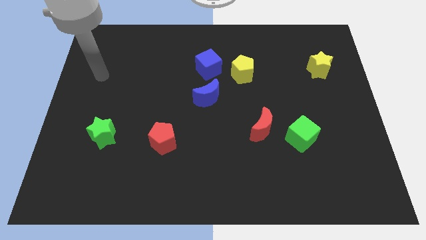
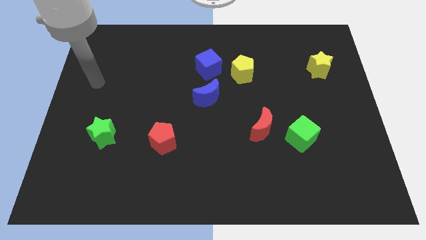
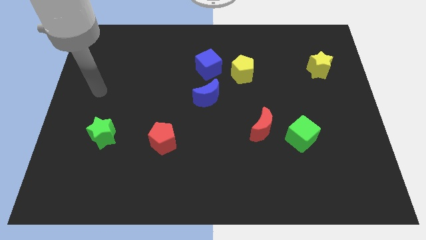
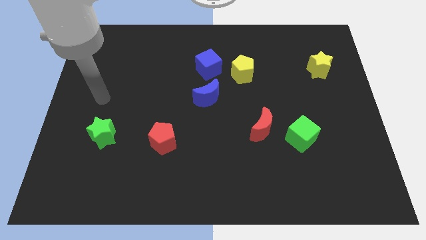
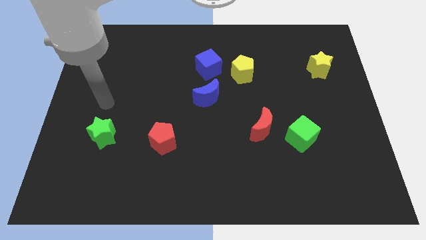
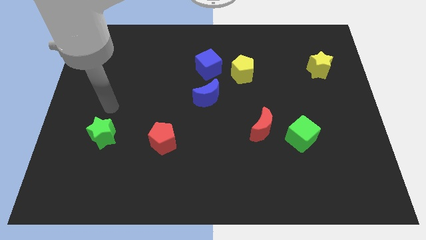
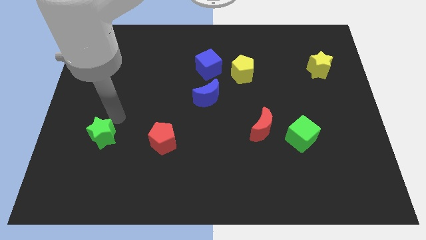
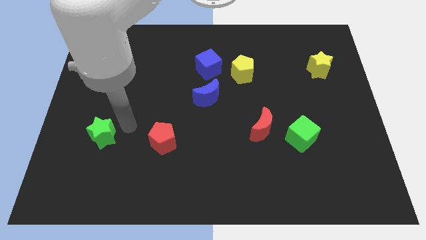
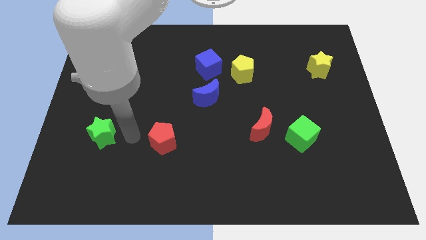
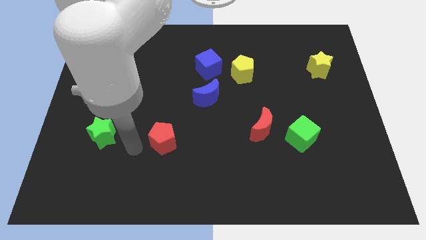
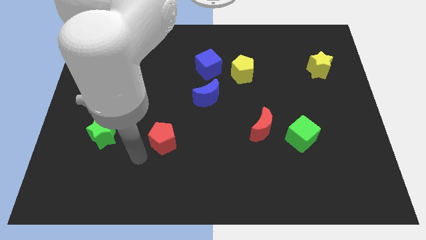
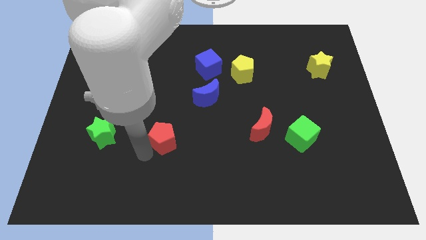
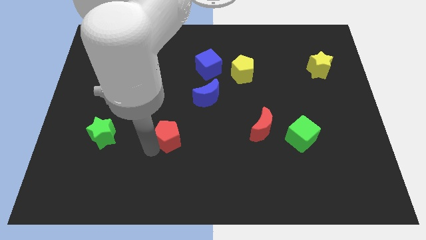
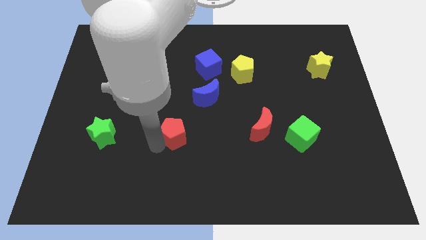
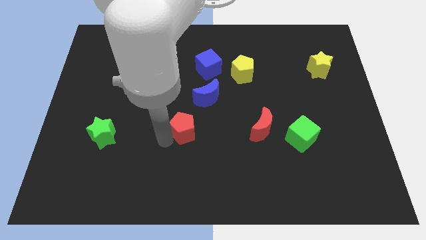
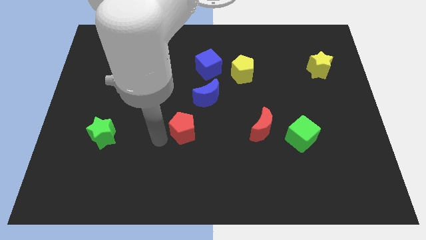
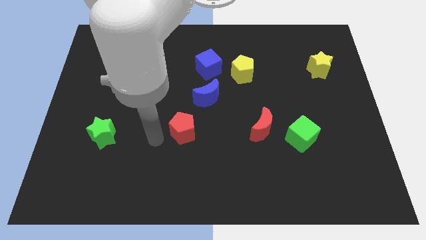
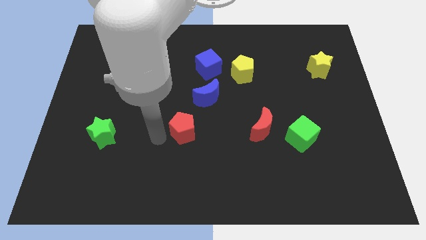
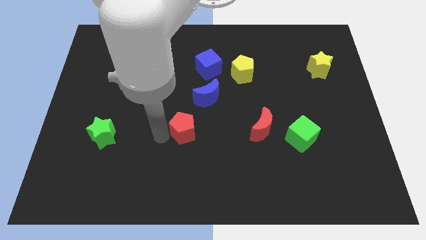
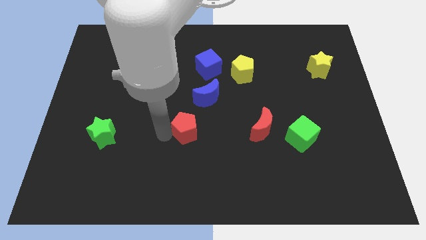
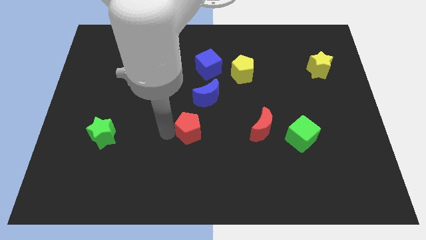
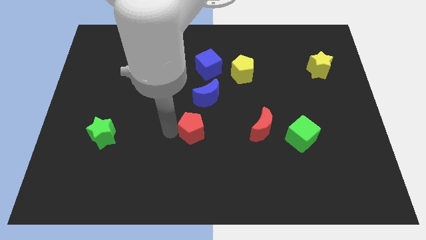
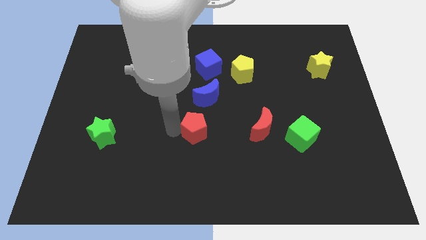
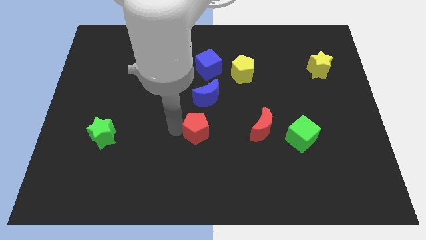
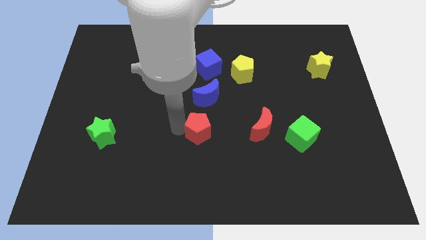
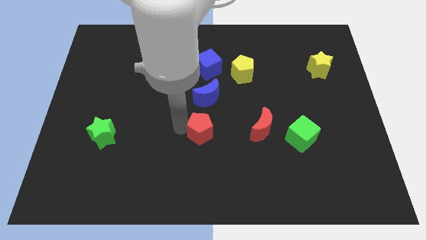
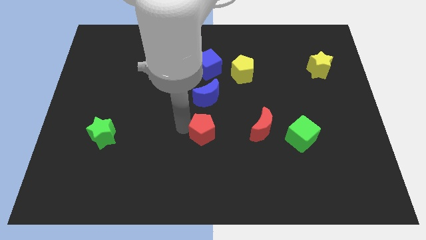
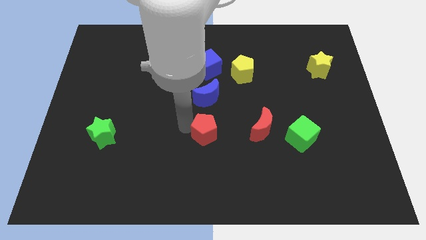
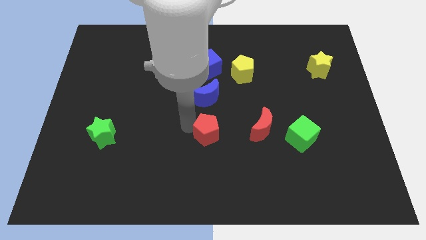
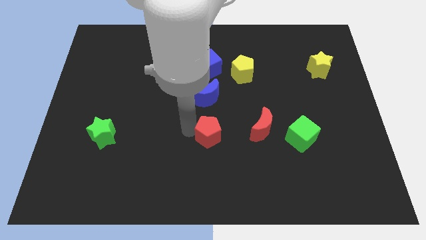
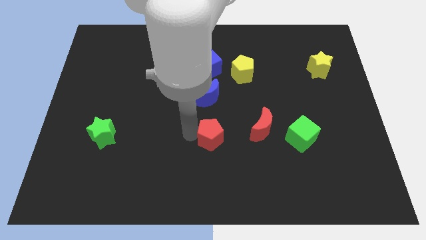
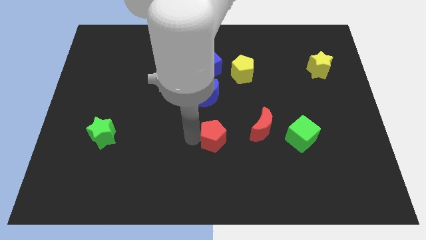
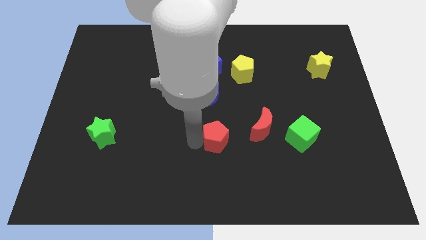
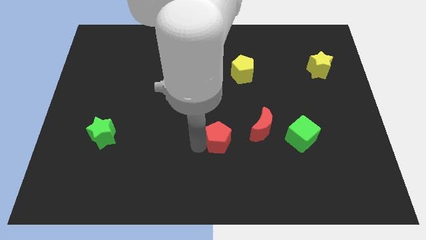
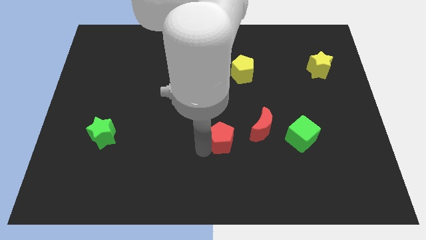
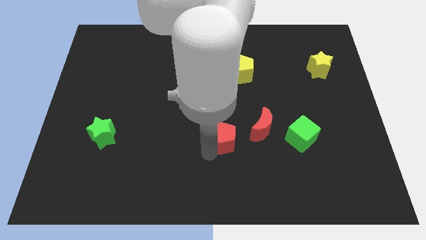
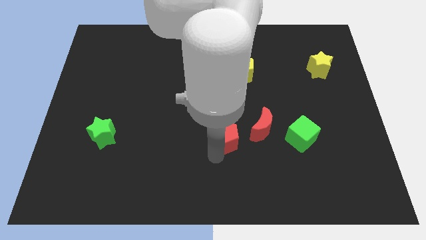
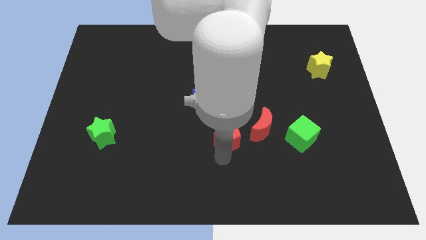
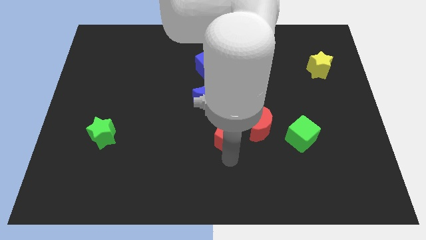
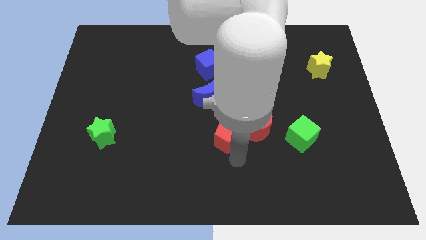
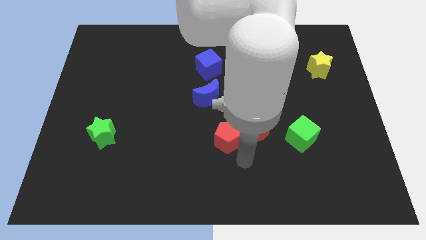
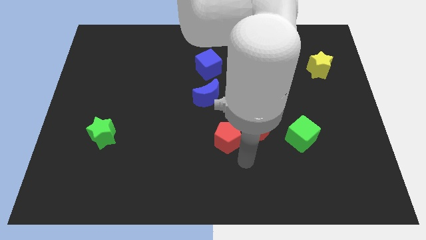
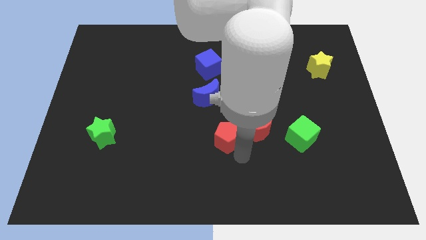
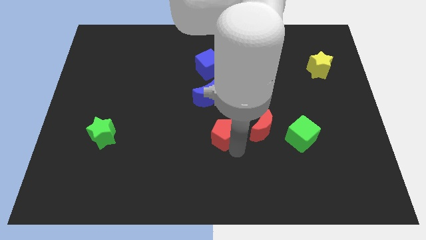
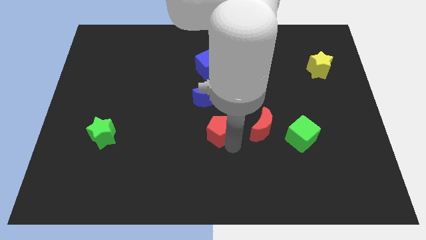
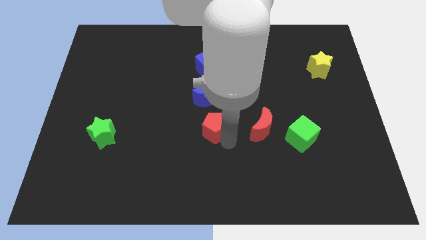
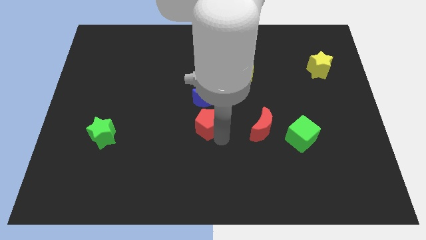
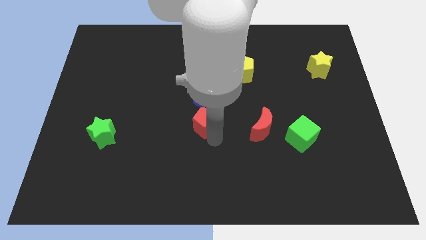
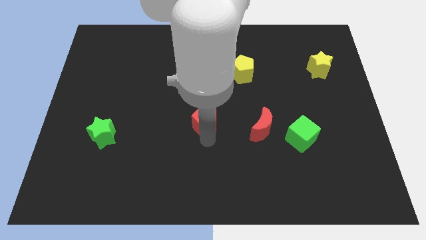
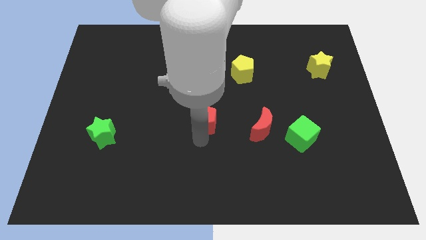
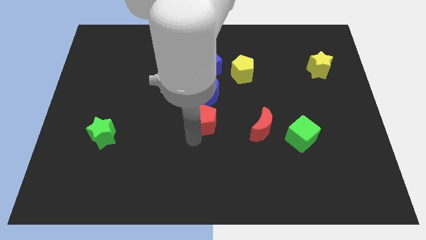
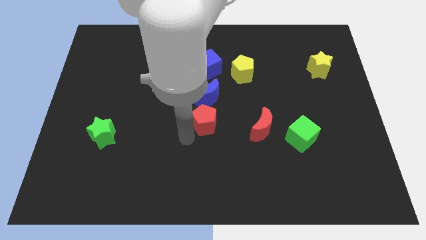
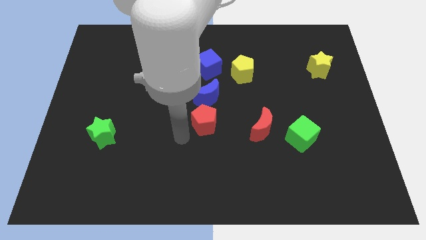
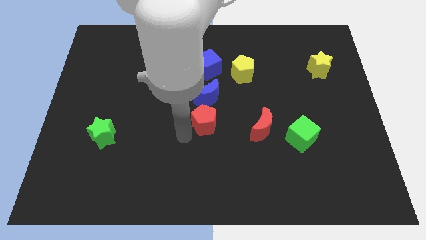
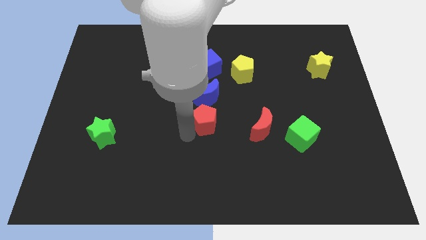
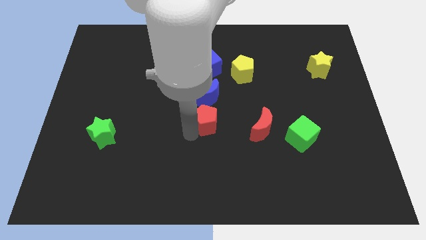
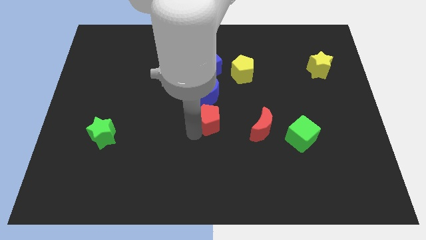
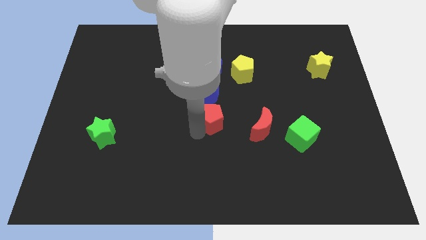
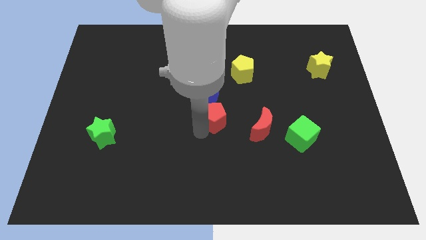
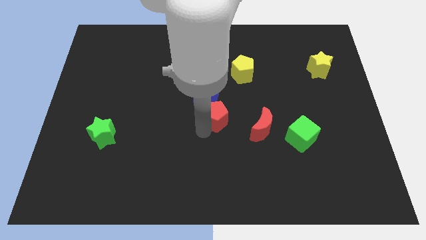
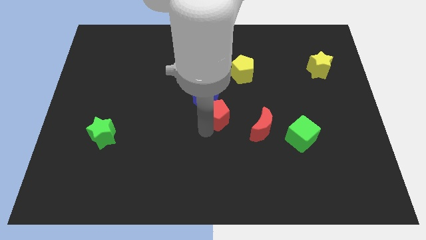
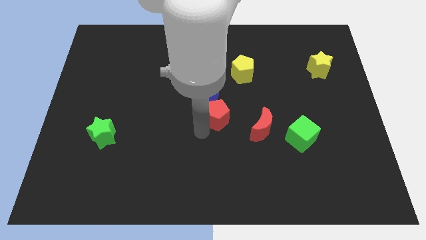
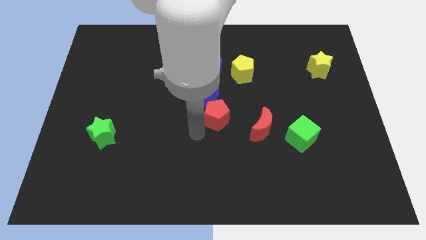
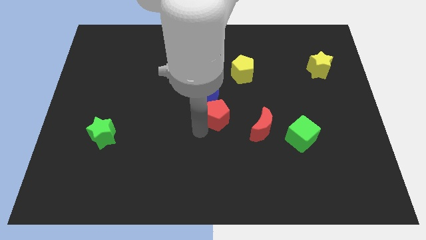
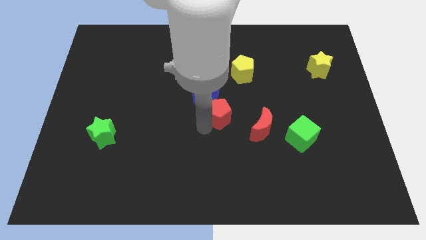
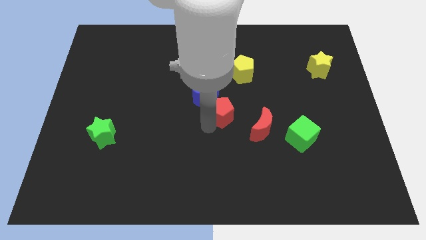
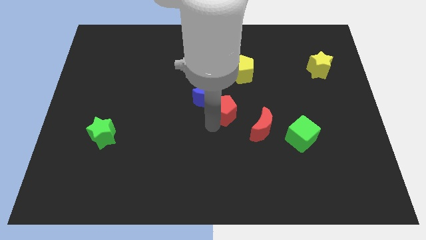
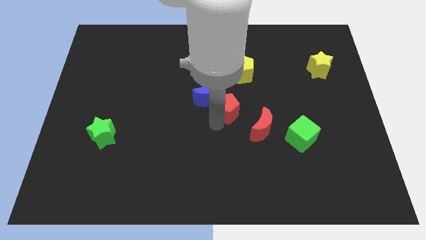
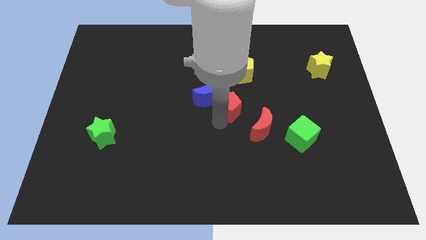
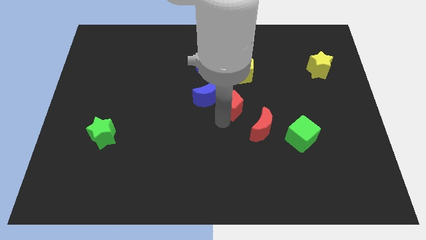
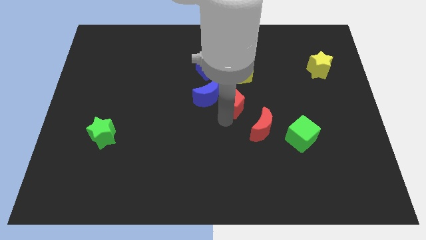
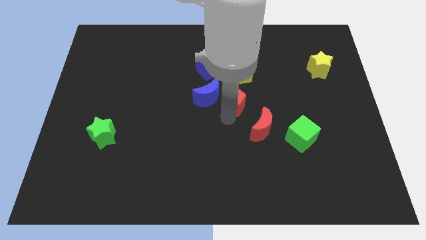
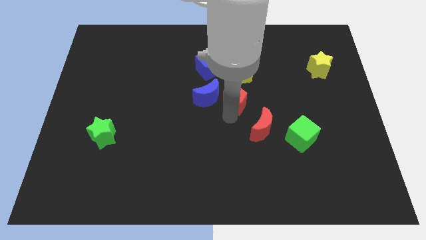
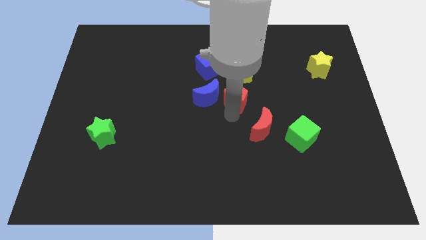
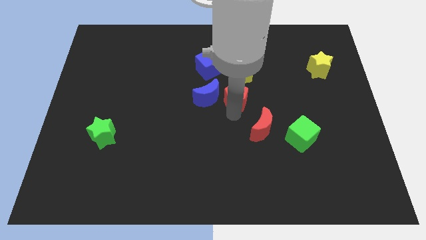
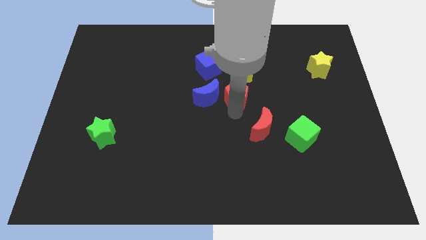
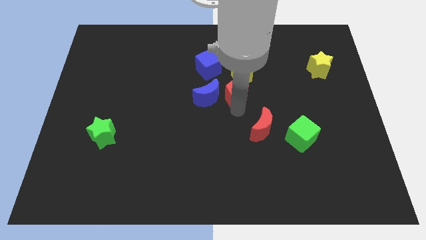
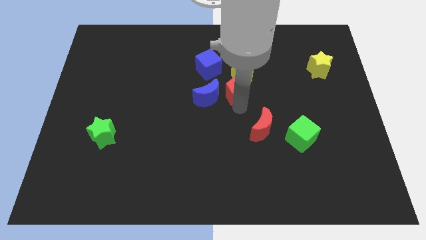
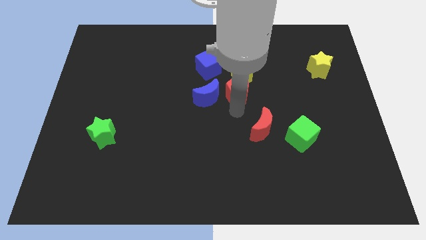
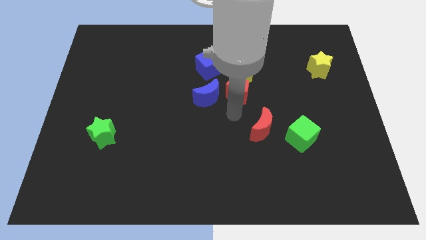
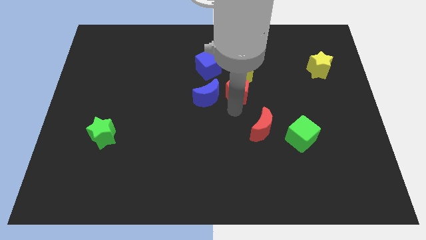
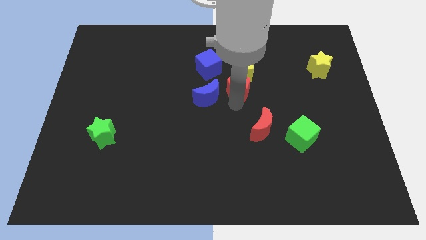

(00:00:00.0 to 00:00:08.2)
put the red pentagon next to the yellow pentagon
